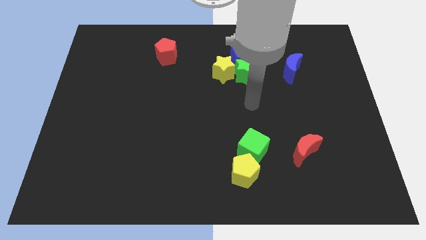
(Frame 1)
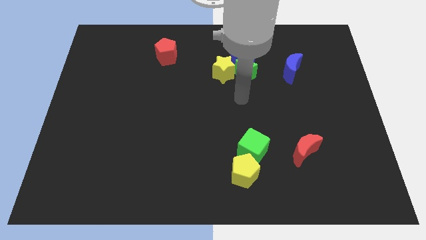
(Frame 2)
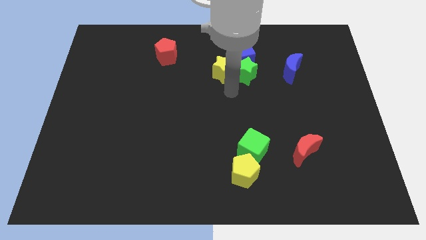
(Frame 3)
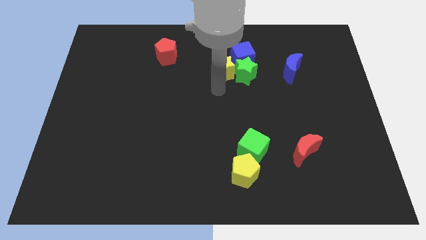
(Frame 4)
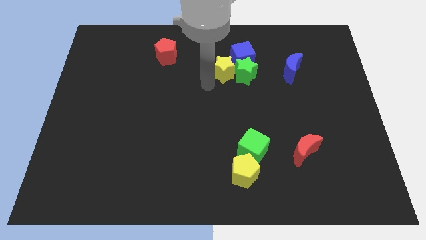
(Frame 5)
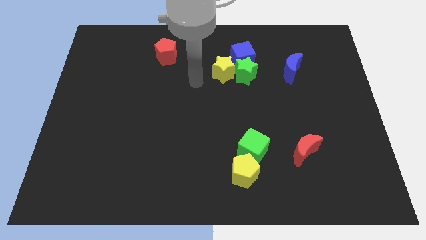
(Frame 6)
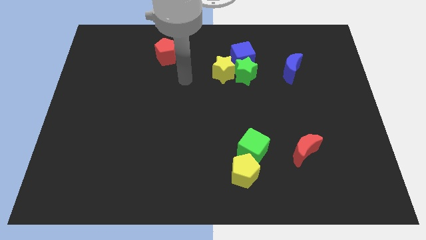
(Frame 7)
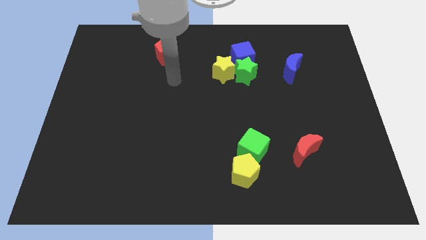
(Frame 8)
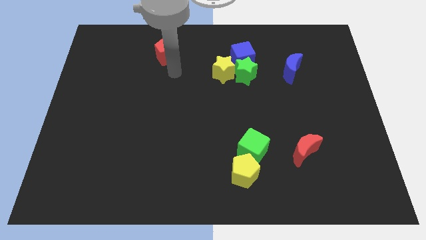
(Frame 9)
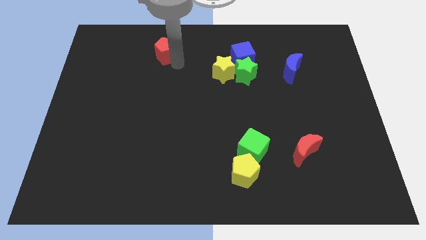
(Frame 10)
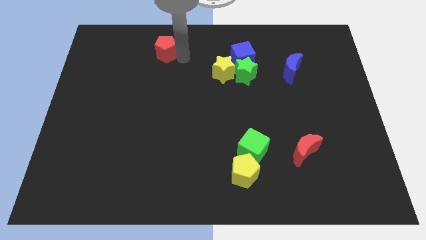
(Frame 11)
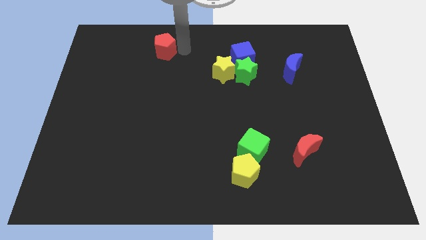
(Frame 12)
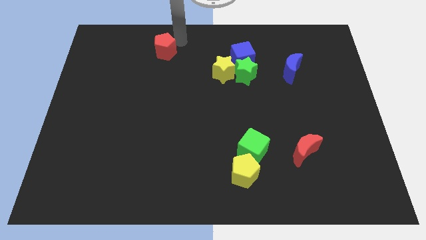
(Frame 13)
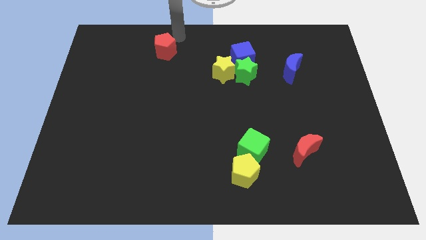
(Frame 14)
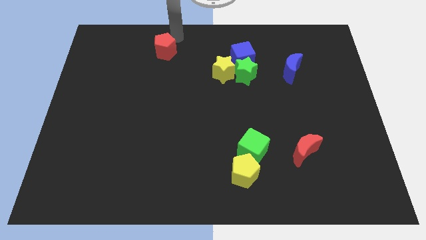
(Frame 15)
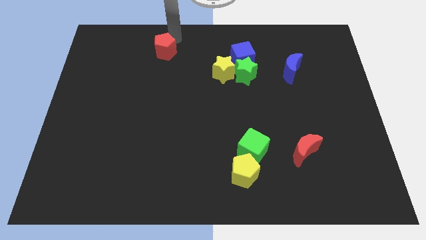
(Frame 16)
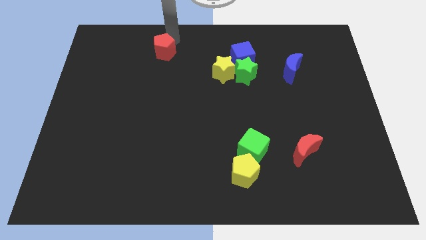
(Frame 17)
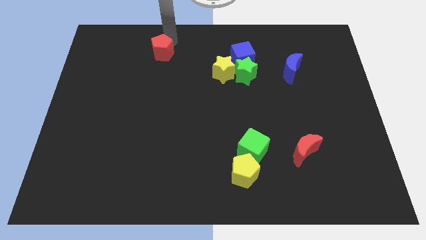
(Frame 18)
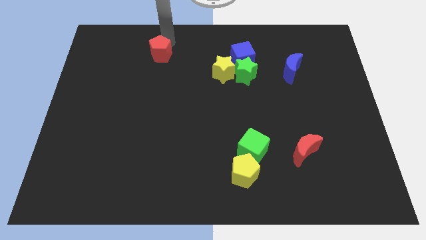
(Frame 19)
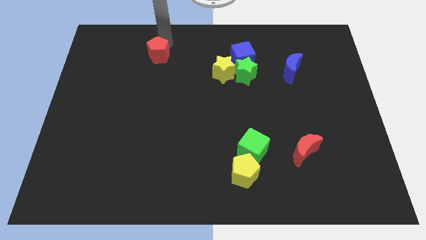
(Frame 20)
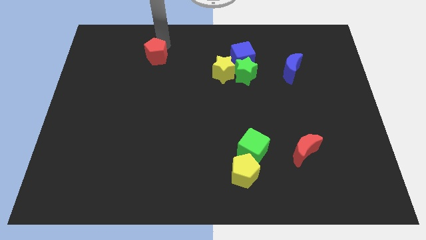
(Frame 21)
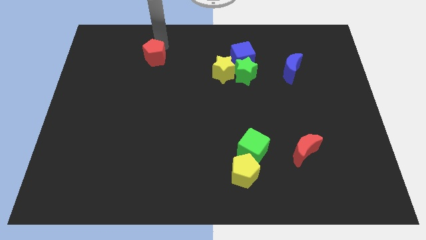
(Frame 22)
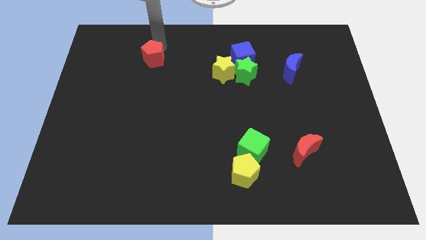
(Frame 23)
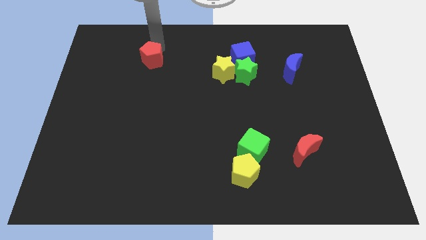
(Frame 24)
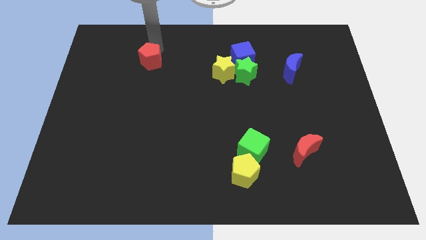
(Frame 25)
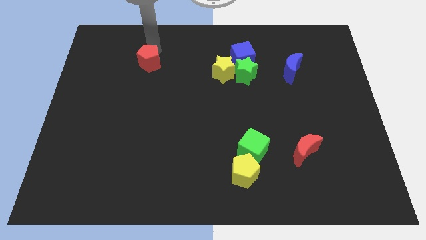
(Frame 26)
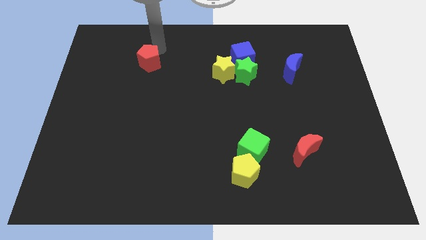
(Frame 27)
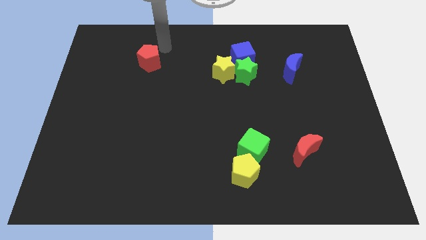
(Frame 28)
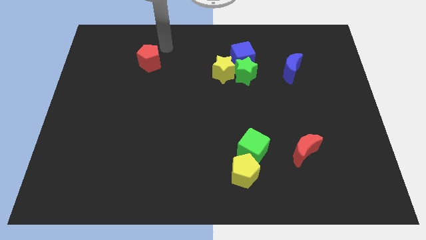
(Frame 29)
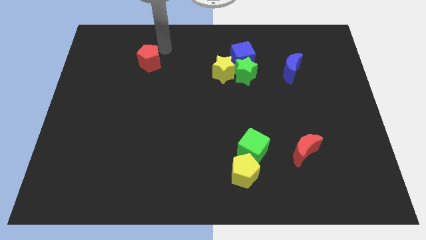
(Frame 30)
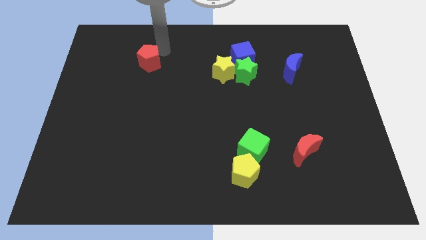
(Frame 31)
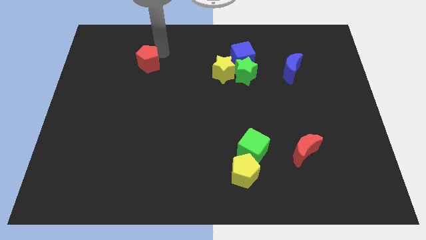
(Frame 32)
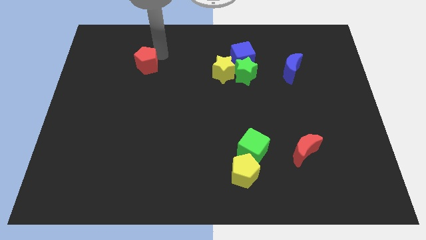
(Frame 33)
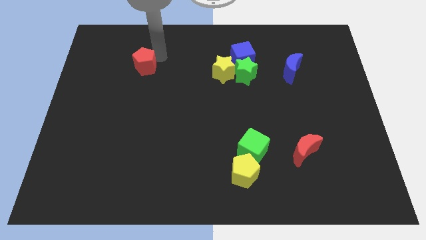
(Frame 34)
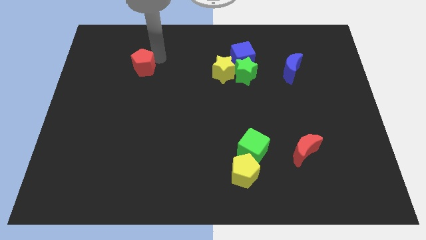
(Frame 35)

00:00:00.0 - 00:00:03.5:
slightly slide the red pentagon down and to the left diagonally

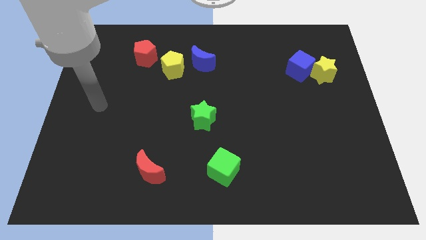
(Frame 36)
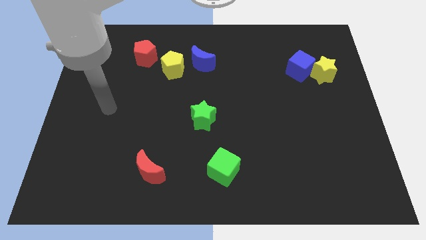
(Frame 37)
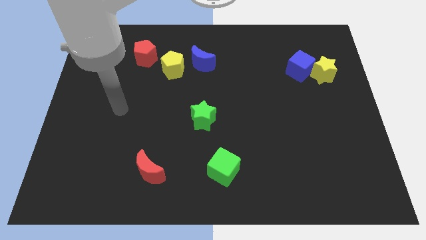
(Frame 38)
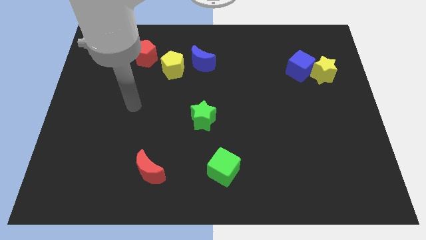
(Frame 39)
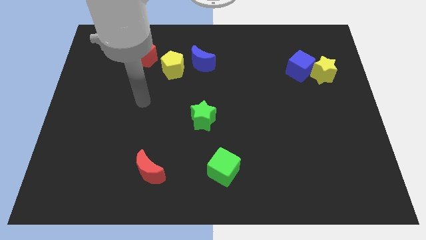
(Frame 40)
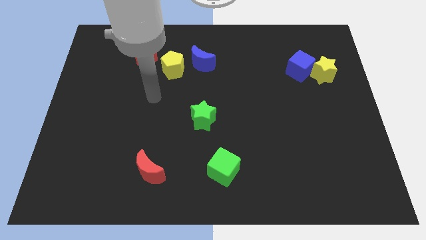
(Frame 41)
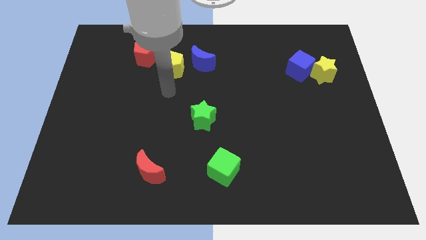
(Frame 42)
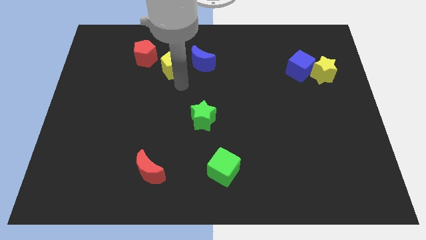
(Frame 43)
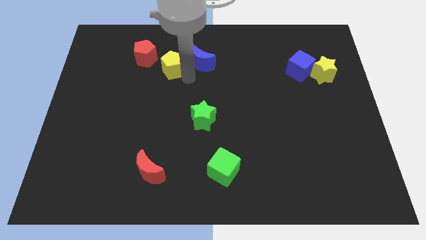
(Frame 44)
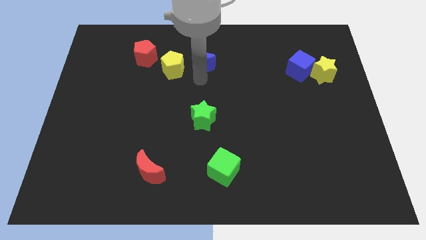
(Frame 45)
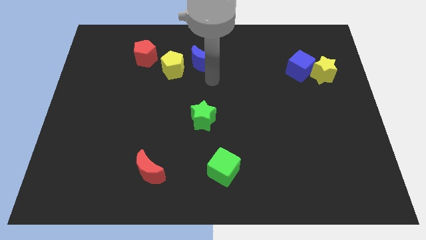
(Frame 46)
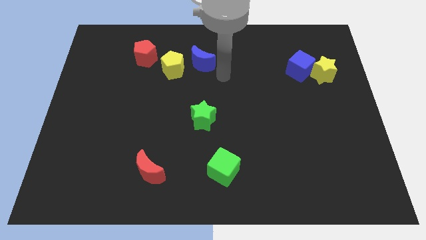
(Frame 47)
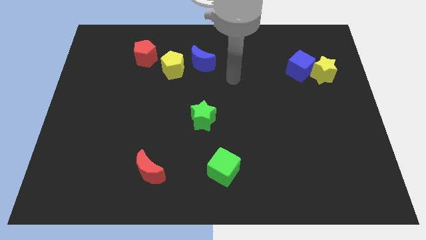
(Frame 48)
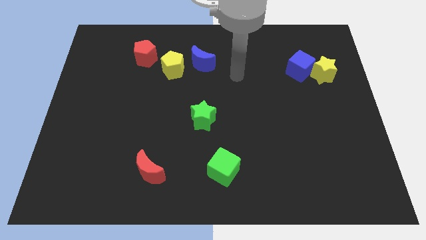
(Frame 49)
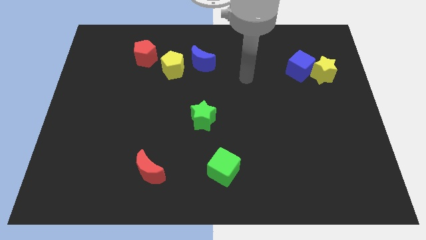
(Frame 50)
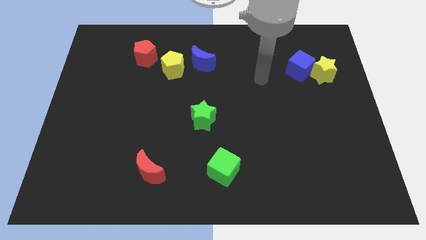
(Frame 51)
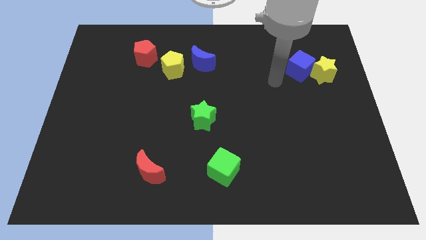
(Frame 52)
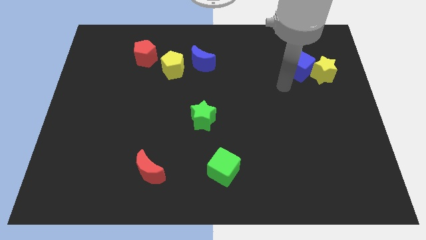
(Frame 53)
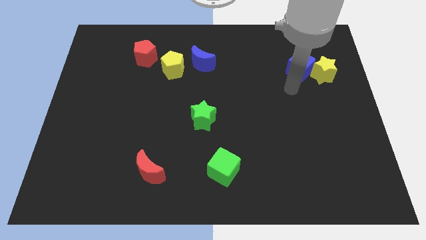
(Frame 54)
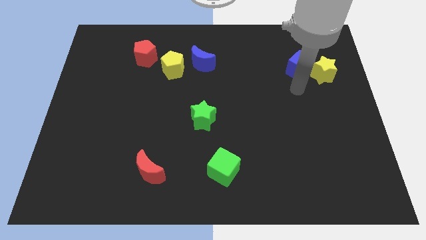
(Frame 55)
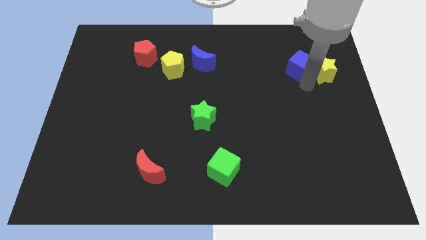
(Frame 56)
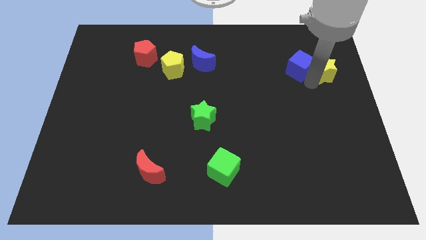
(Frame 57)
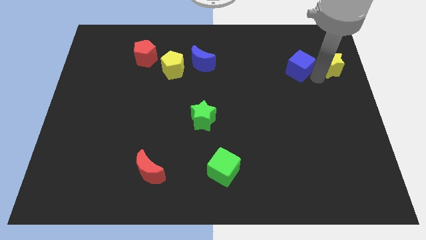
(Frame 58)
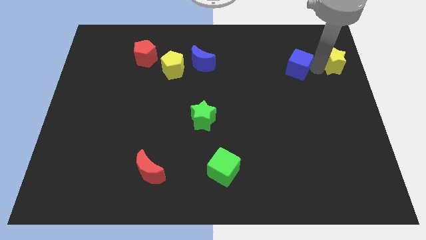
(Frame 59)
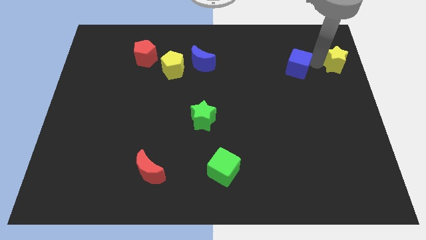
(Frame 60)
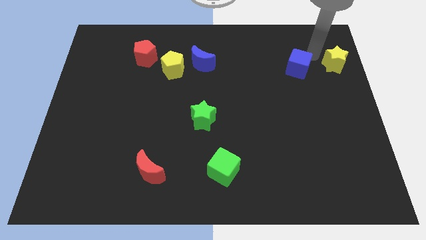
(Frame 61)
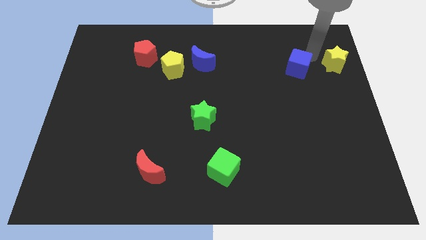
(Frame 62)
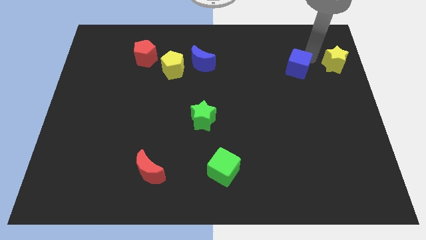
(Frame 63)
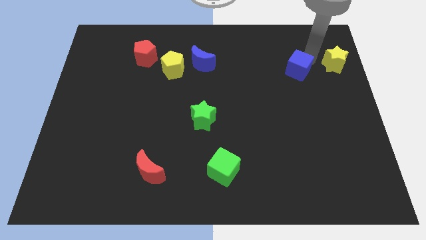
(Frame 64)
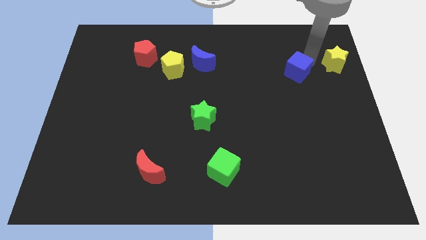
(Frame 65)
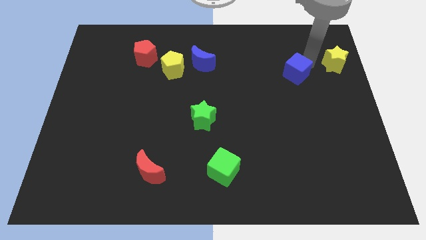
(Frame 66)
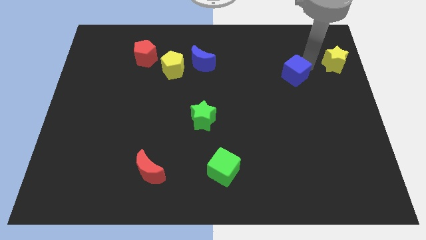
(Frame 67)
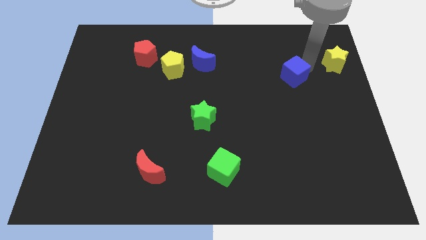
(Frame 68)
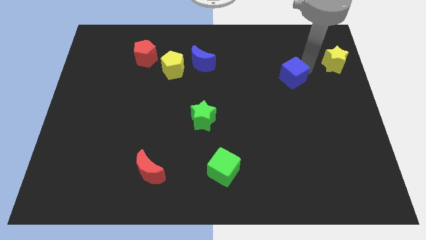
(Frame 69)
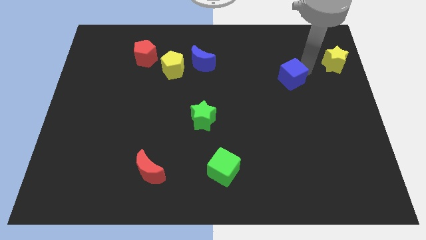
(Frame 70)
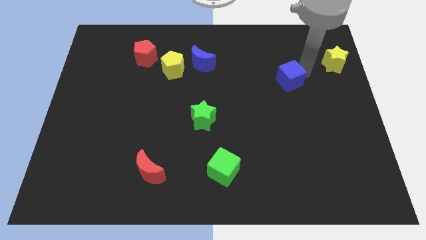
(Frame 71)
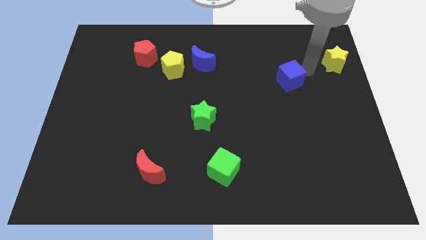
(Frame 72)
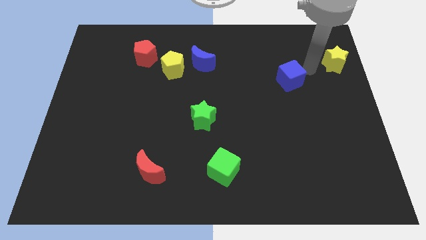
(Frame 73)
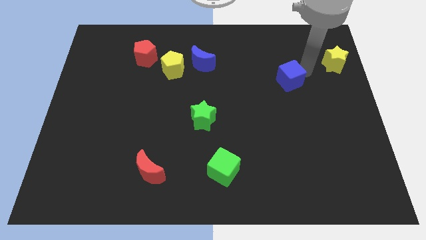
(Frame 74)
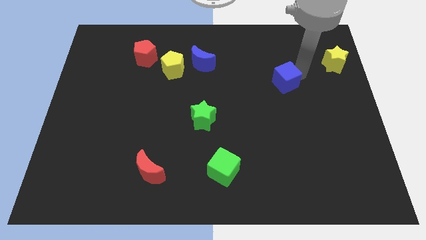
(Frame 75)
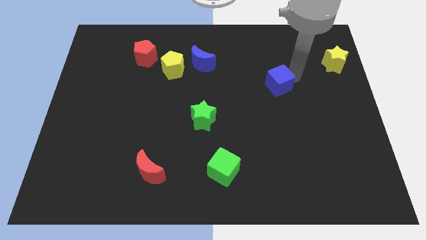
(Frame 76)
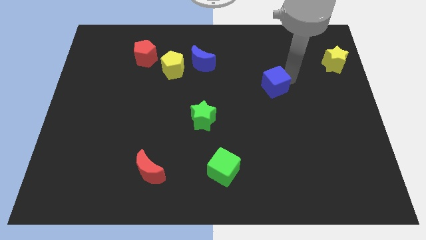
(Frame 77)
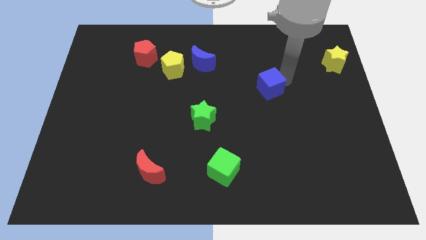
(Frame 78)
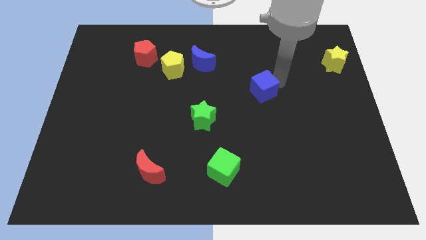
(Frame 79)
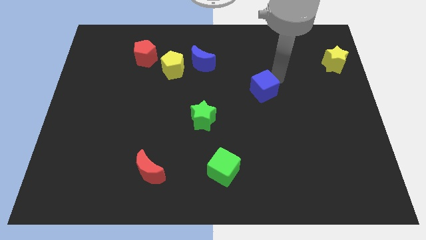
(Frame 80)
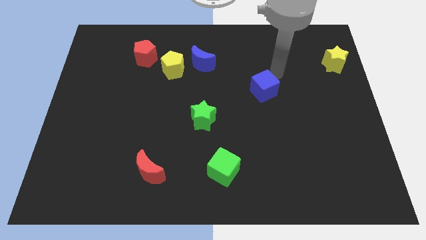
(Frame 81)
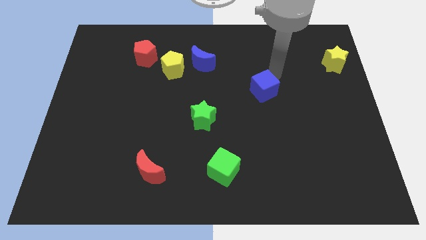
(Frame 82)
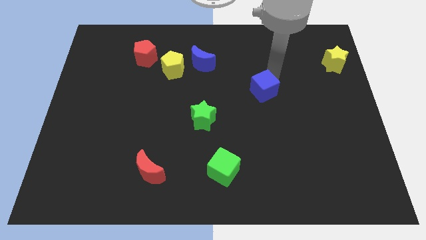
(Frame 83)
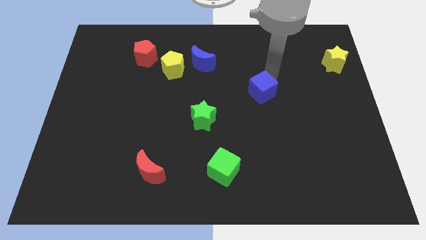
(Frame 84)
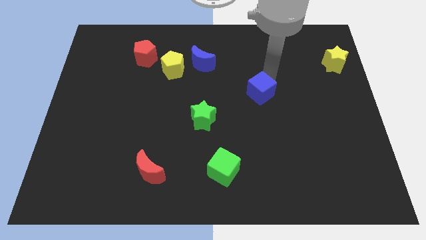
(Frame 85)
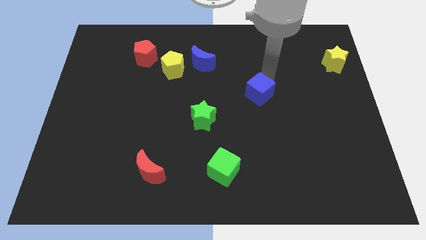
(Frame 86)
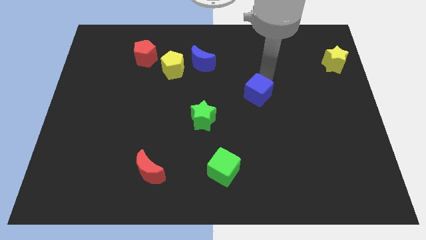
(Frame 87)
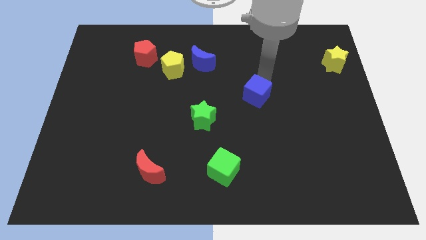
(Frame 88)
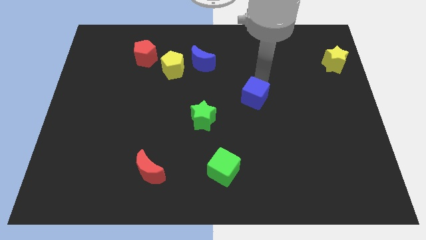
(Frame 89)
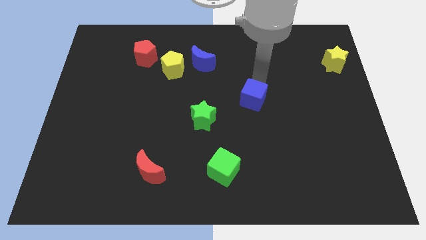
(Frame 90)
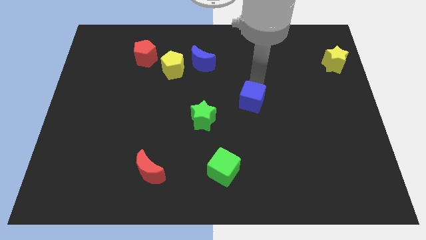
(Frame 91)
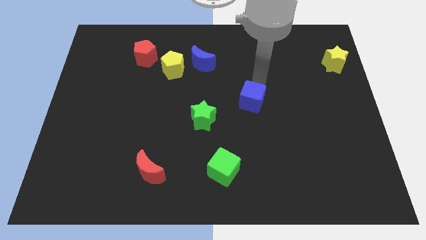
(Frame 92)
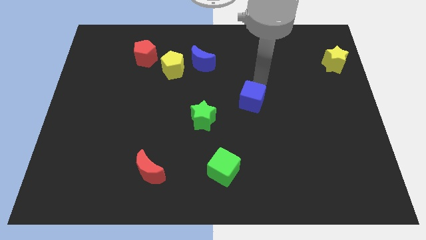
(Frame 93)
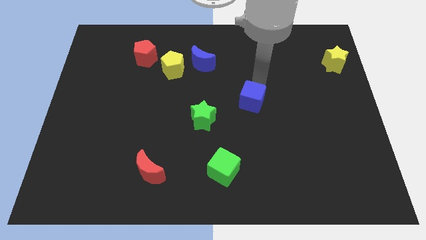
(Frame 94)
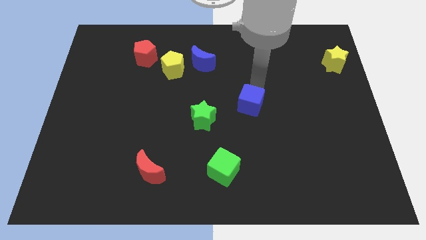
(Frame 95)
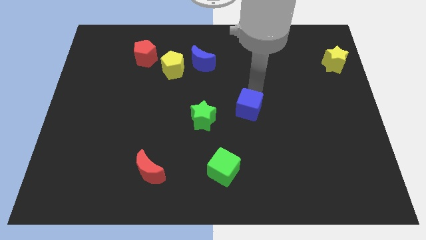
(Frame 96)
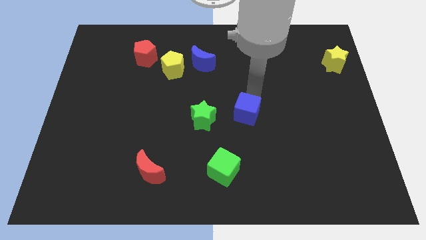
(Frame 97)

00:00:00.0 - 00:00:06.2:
push the blue cube down and then to the left
